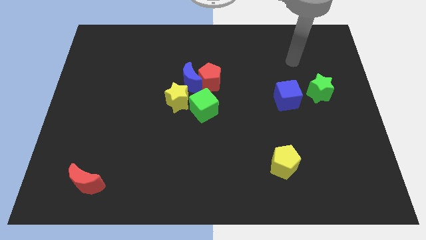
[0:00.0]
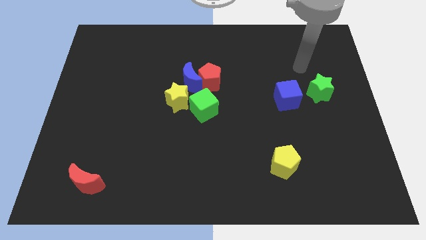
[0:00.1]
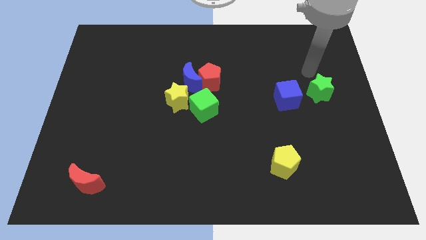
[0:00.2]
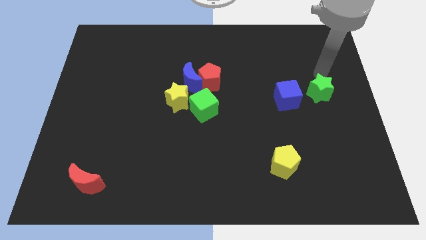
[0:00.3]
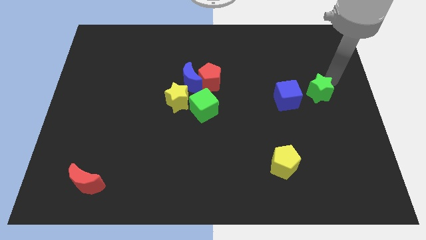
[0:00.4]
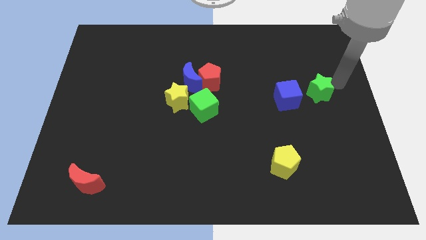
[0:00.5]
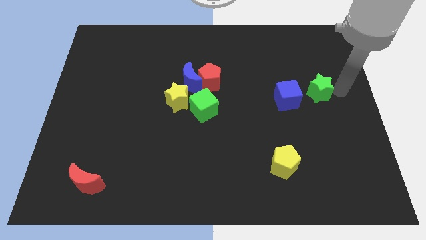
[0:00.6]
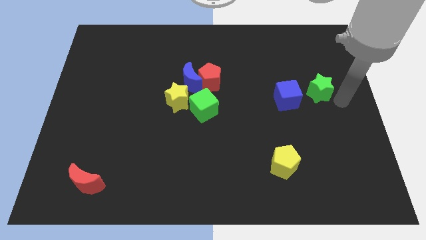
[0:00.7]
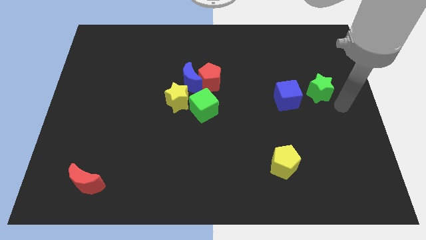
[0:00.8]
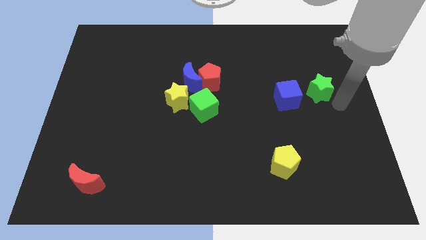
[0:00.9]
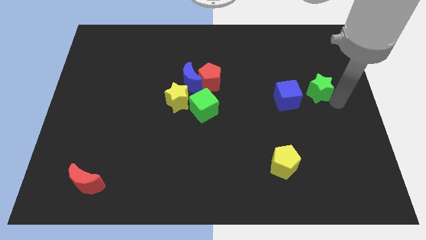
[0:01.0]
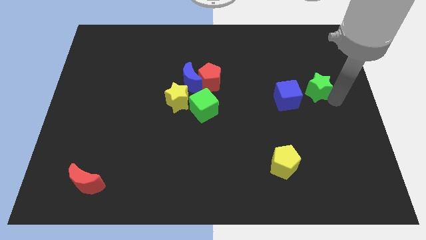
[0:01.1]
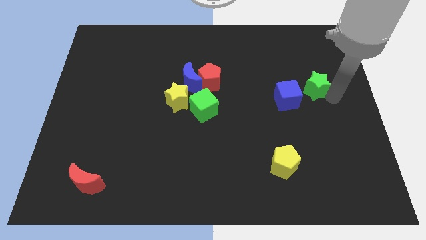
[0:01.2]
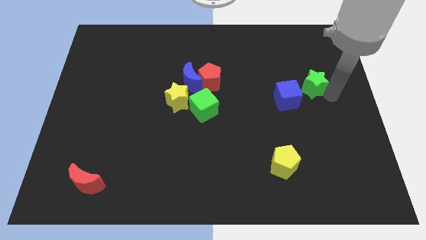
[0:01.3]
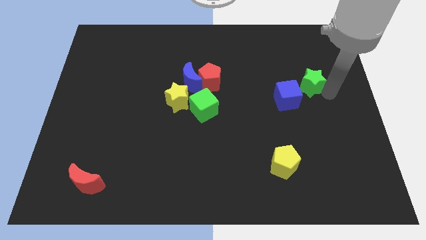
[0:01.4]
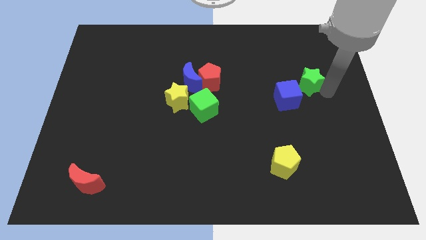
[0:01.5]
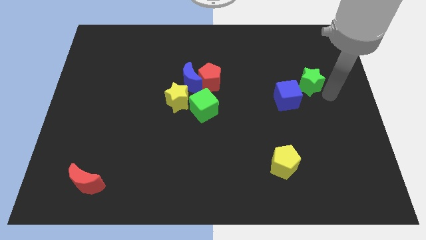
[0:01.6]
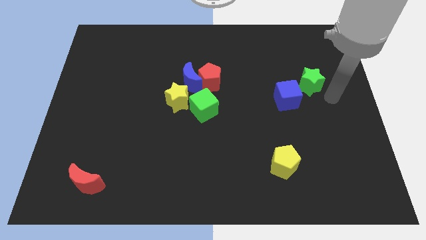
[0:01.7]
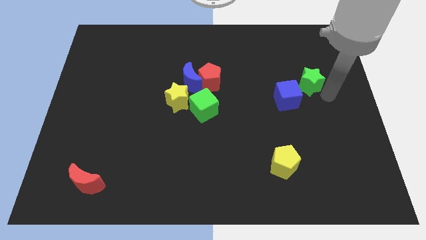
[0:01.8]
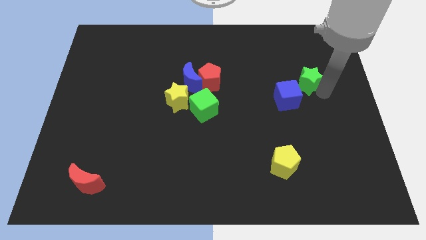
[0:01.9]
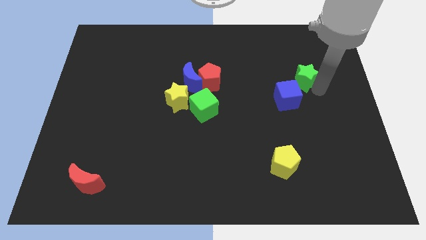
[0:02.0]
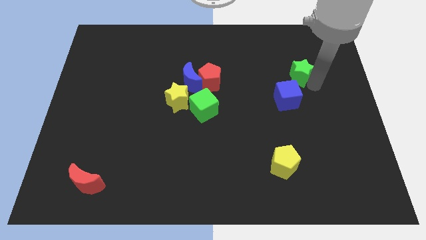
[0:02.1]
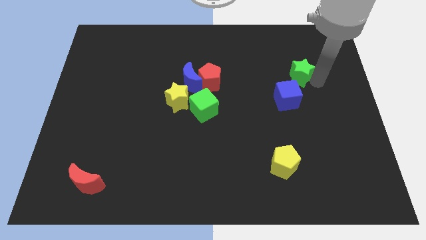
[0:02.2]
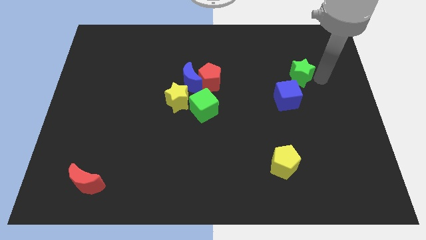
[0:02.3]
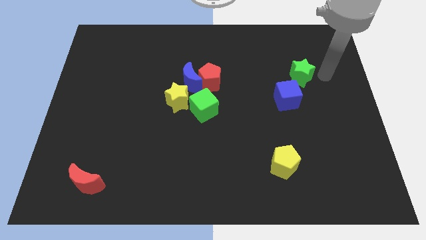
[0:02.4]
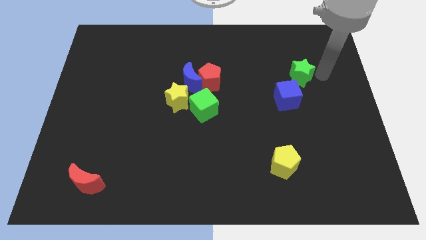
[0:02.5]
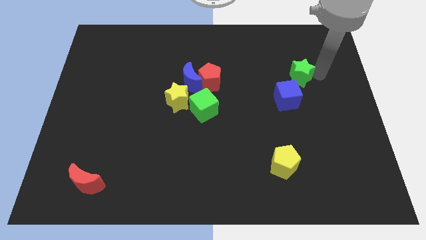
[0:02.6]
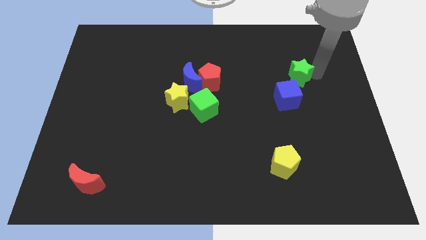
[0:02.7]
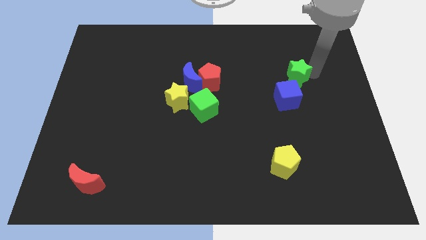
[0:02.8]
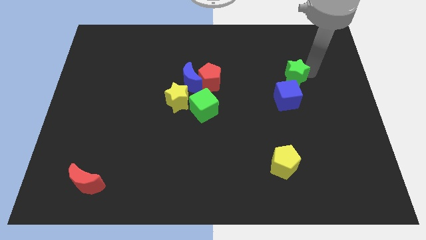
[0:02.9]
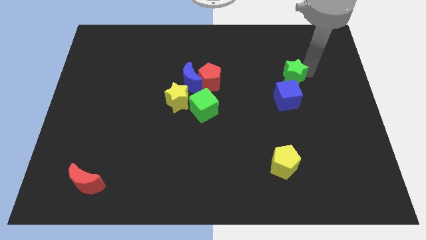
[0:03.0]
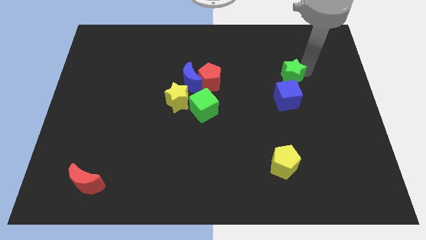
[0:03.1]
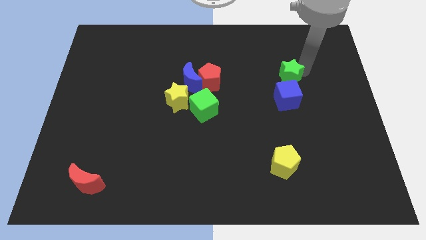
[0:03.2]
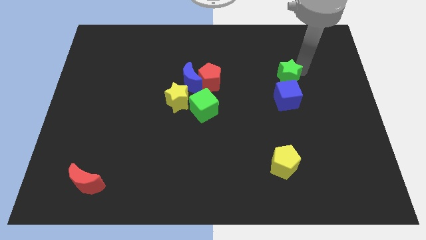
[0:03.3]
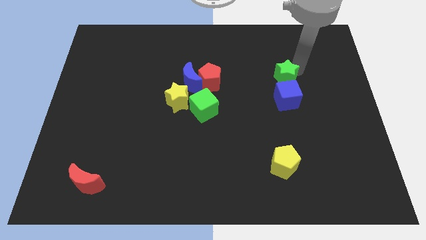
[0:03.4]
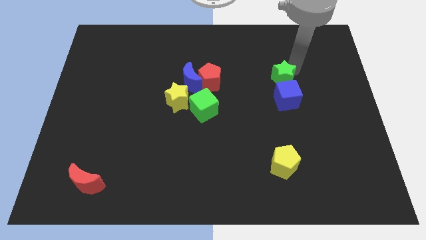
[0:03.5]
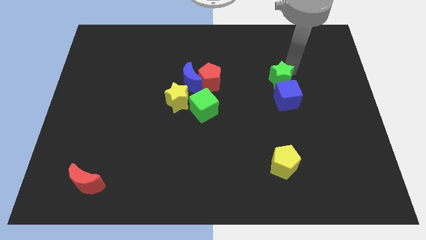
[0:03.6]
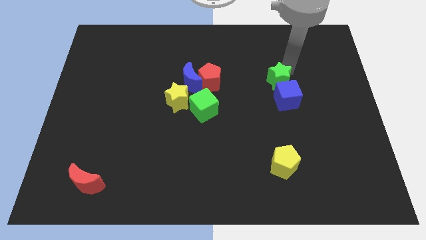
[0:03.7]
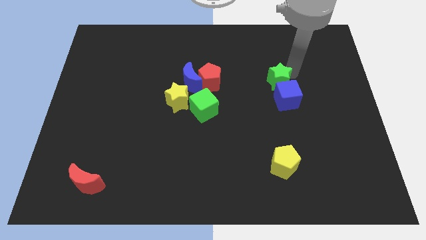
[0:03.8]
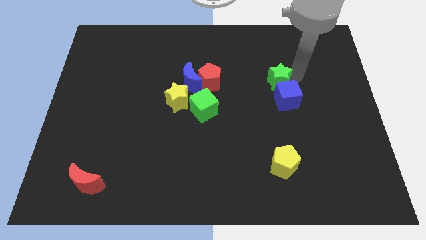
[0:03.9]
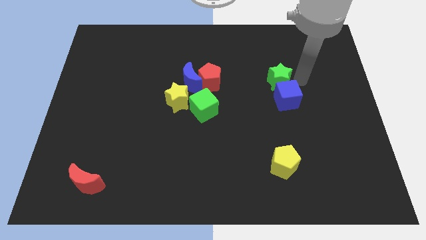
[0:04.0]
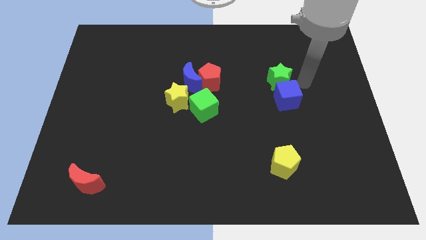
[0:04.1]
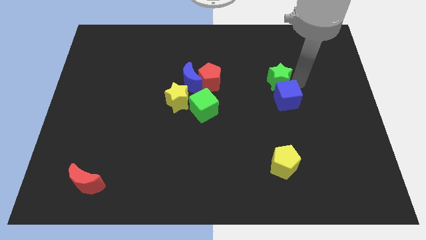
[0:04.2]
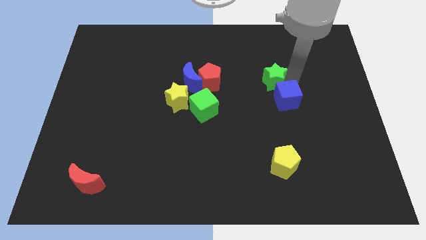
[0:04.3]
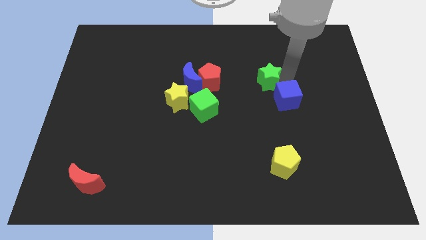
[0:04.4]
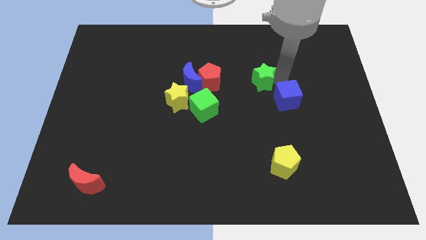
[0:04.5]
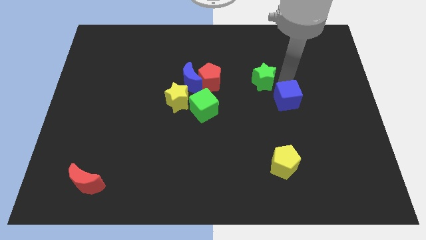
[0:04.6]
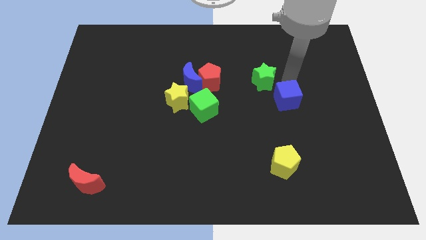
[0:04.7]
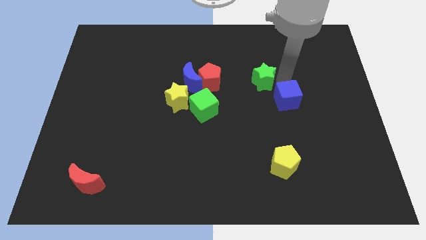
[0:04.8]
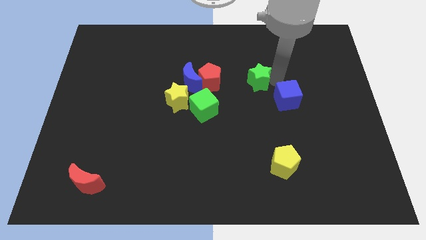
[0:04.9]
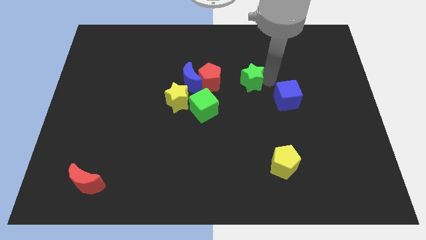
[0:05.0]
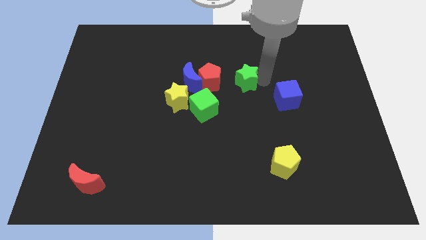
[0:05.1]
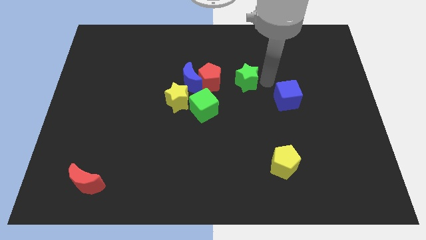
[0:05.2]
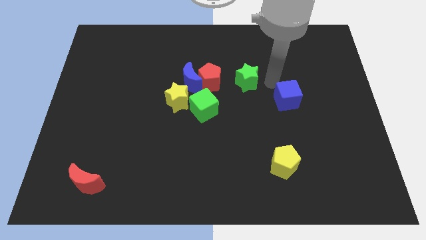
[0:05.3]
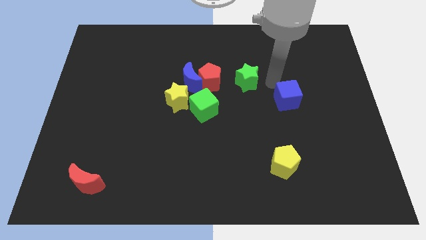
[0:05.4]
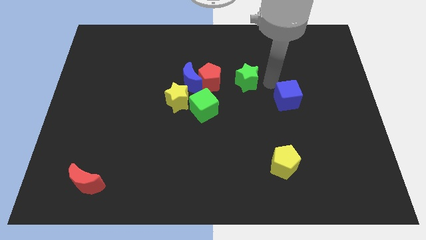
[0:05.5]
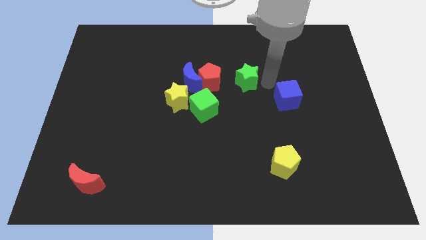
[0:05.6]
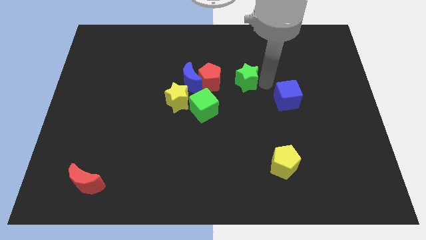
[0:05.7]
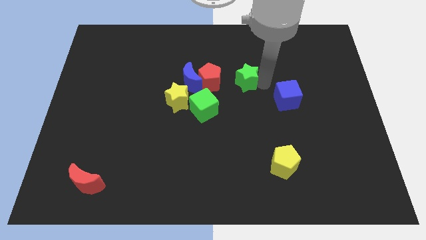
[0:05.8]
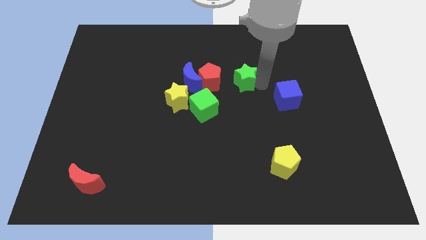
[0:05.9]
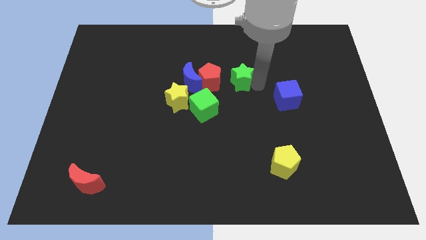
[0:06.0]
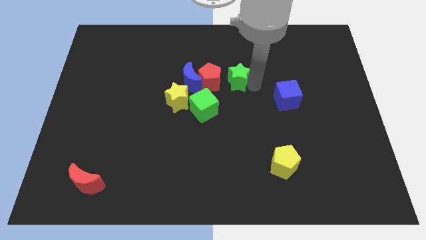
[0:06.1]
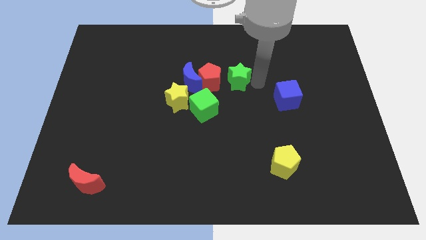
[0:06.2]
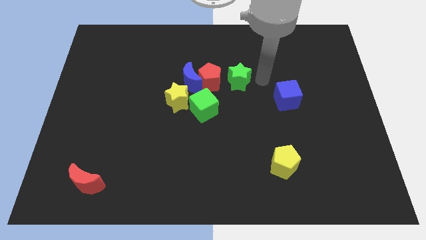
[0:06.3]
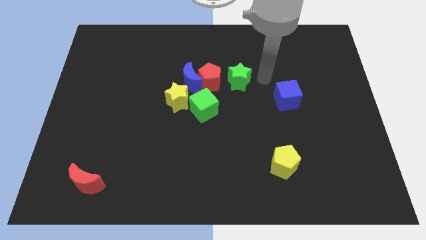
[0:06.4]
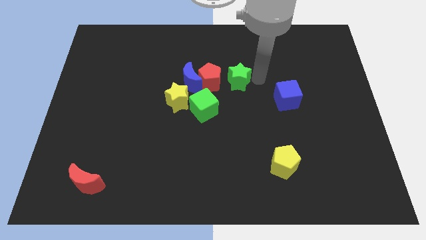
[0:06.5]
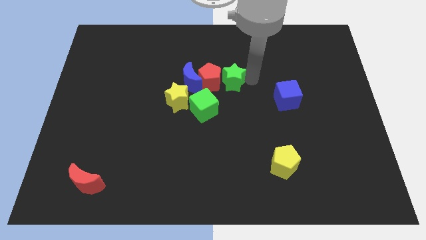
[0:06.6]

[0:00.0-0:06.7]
move the green star towards the red pentagon
